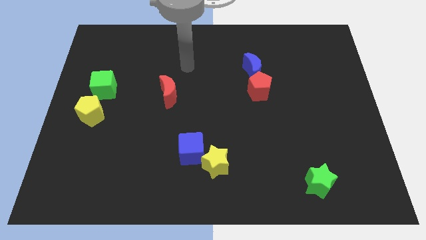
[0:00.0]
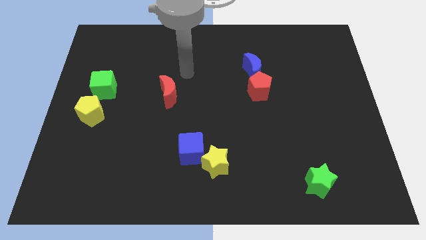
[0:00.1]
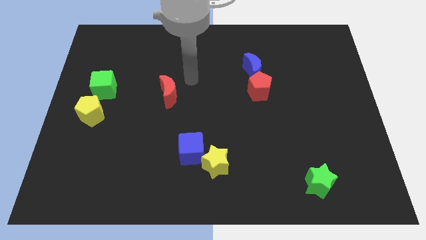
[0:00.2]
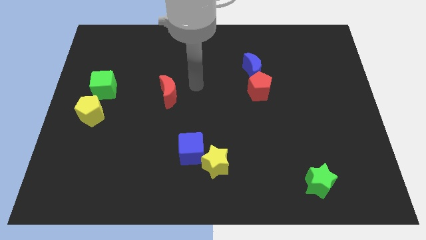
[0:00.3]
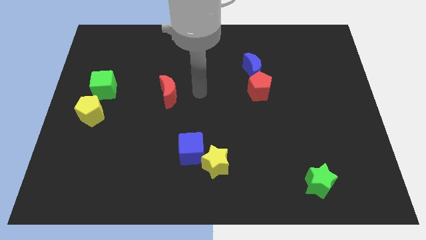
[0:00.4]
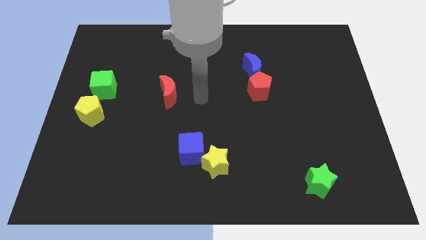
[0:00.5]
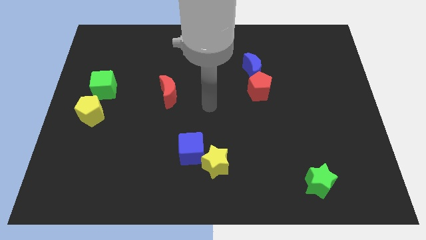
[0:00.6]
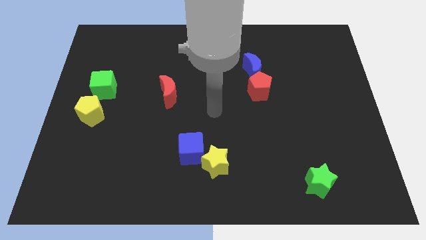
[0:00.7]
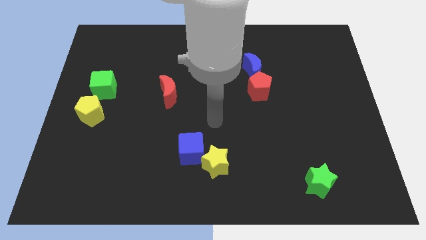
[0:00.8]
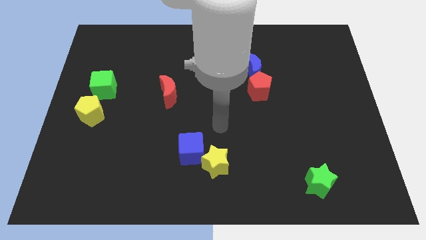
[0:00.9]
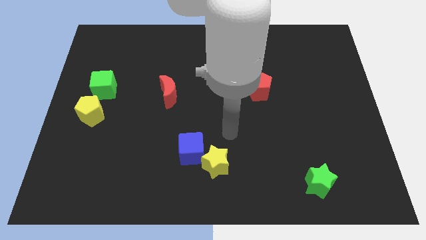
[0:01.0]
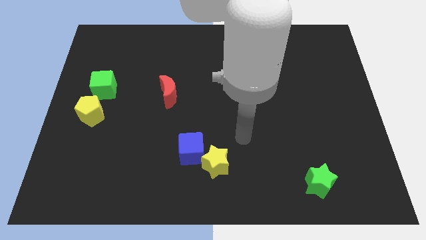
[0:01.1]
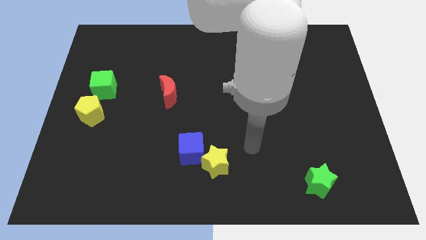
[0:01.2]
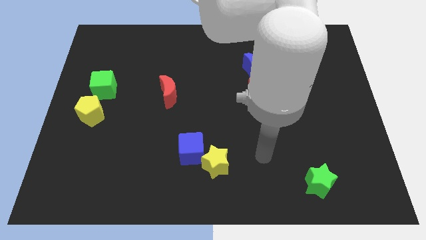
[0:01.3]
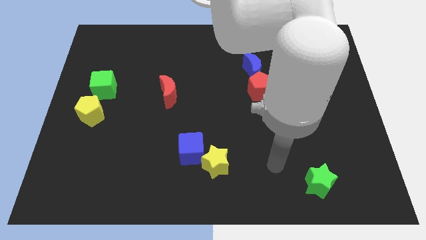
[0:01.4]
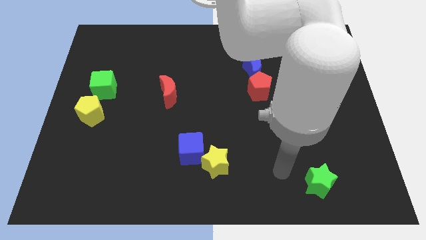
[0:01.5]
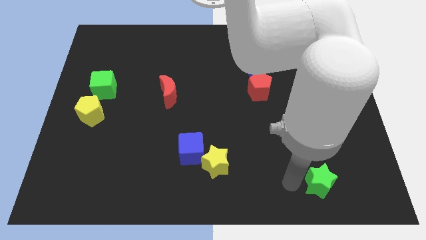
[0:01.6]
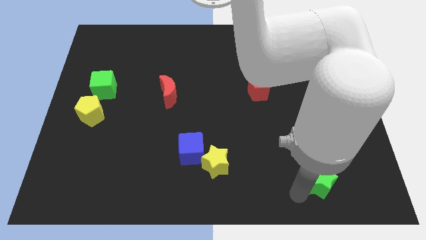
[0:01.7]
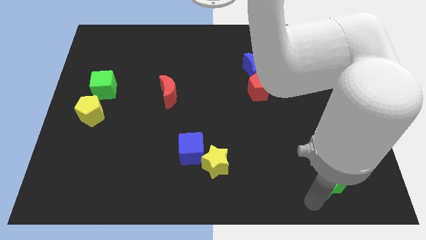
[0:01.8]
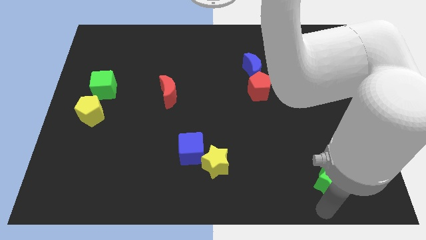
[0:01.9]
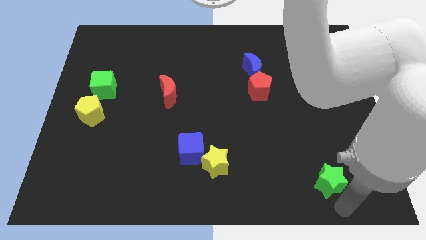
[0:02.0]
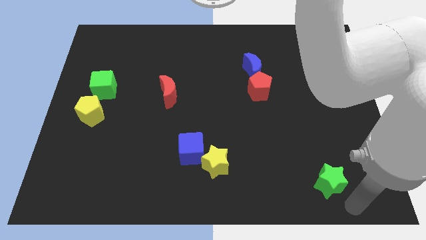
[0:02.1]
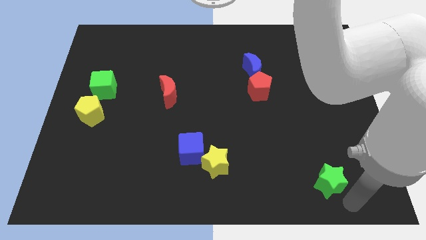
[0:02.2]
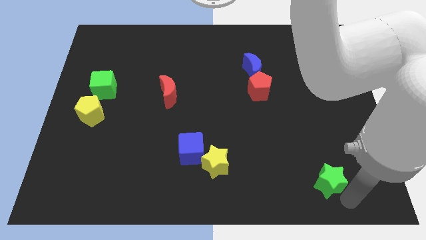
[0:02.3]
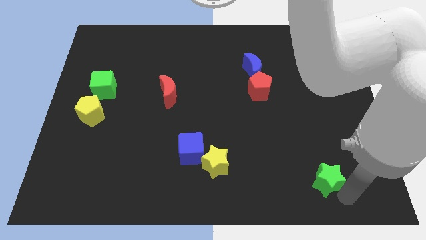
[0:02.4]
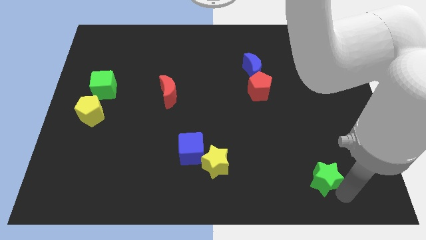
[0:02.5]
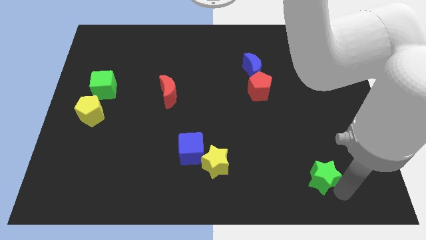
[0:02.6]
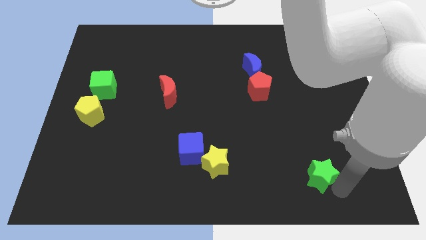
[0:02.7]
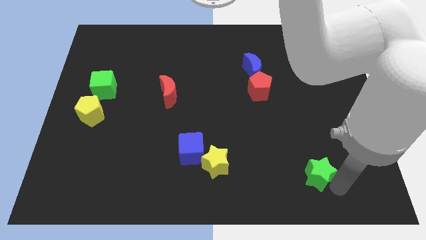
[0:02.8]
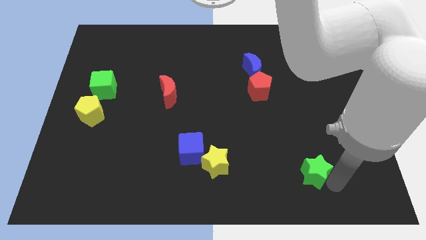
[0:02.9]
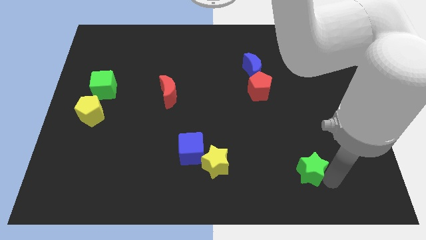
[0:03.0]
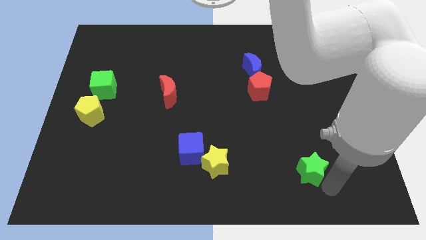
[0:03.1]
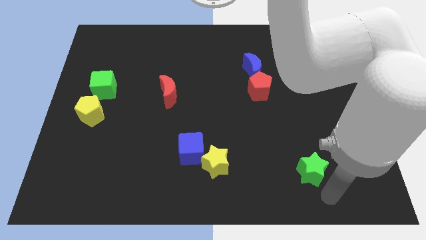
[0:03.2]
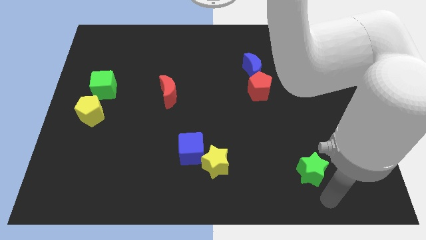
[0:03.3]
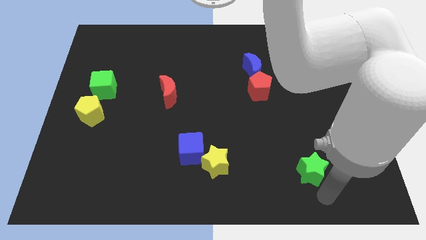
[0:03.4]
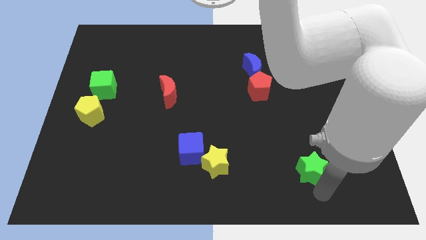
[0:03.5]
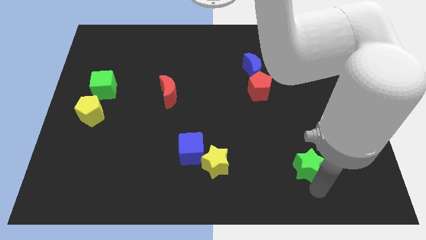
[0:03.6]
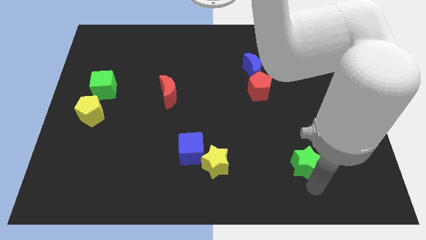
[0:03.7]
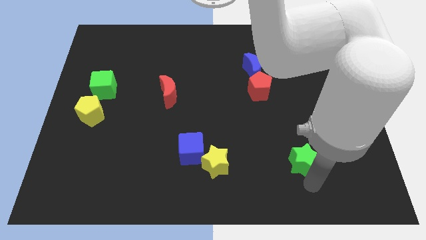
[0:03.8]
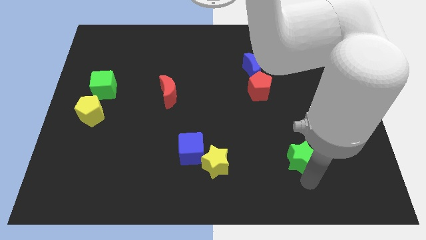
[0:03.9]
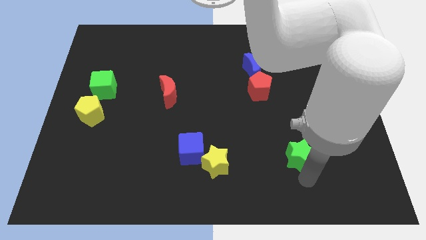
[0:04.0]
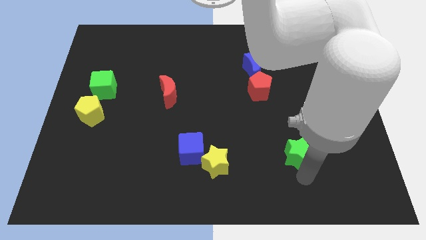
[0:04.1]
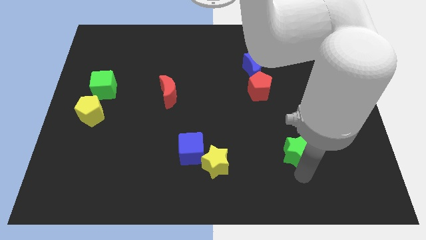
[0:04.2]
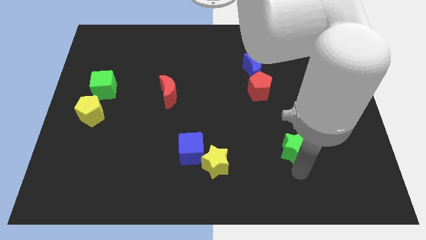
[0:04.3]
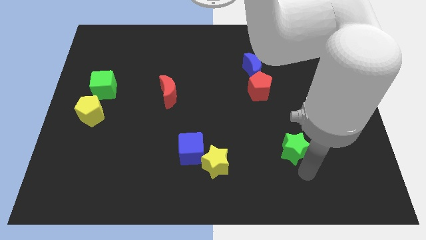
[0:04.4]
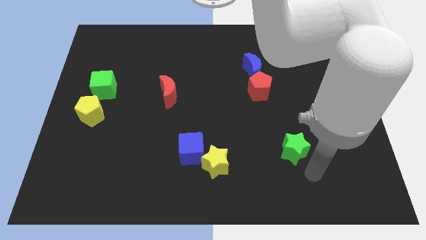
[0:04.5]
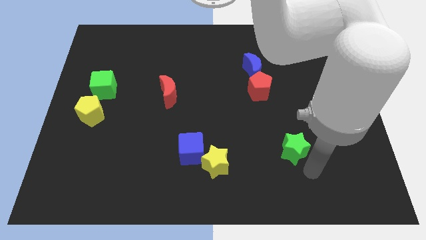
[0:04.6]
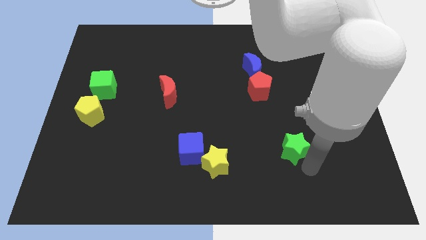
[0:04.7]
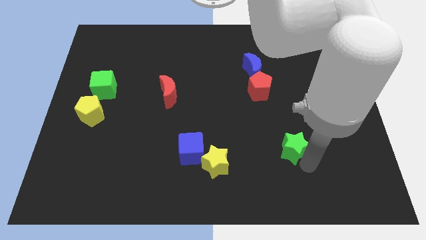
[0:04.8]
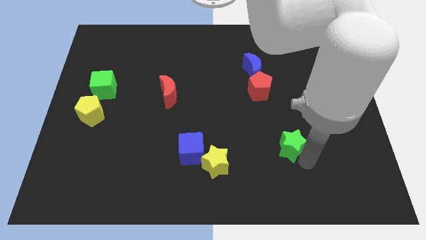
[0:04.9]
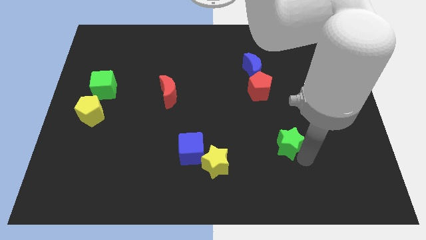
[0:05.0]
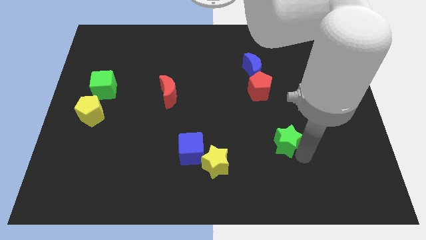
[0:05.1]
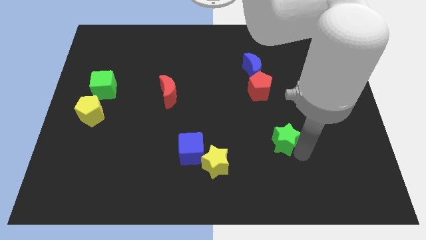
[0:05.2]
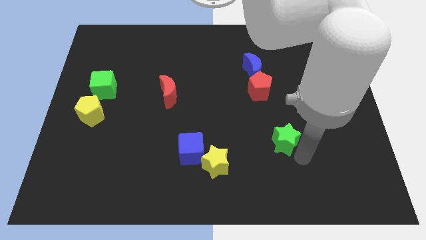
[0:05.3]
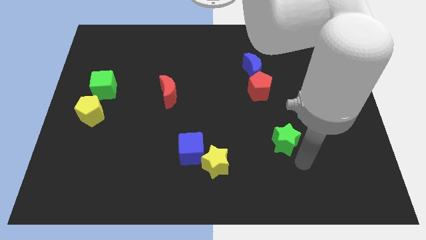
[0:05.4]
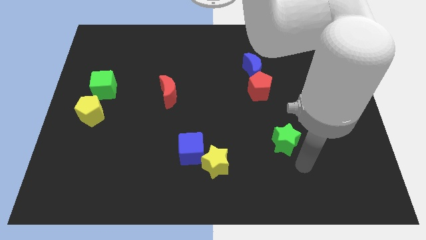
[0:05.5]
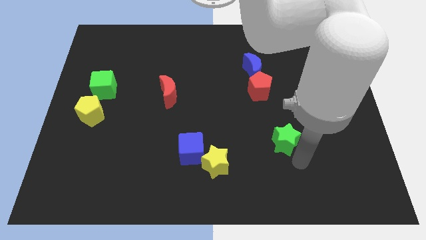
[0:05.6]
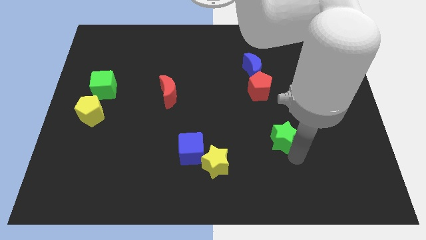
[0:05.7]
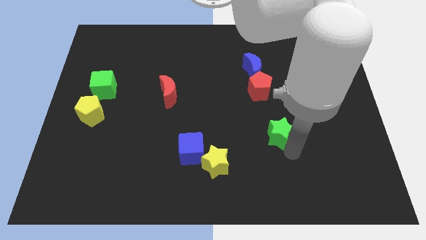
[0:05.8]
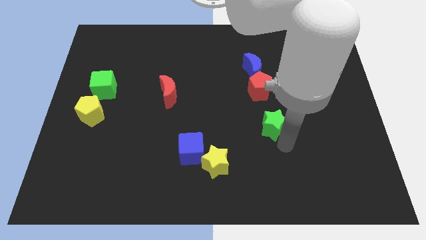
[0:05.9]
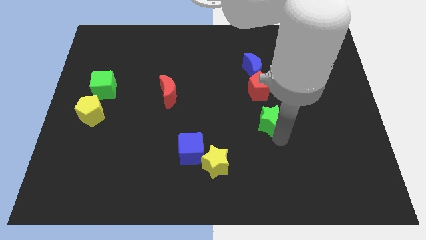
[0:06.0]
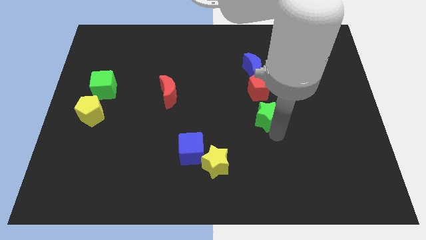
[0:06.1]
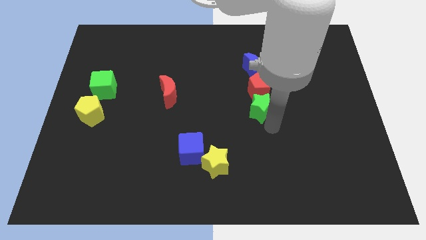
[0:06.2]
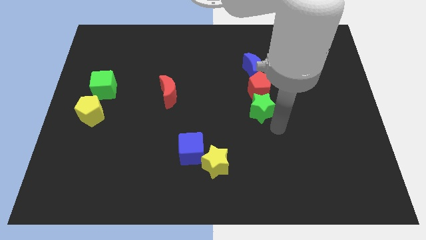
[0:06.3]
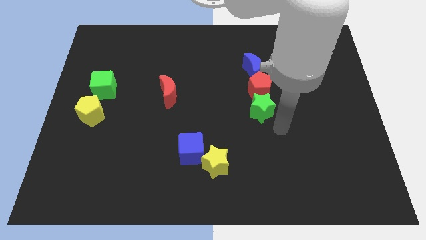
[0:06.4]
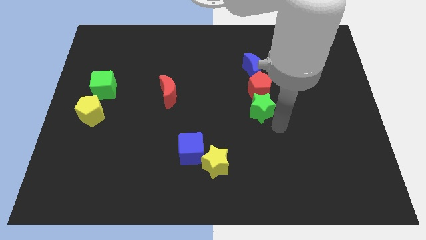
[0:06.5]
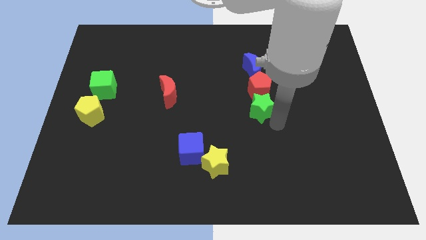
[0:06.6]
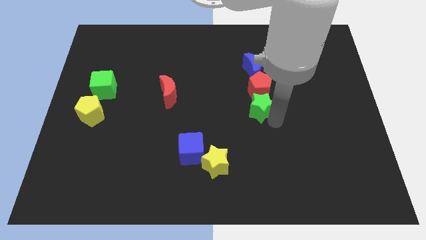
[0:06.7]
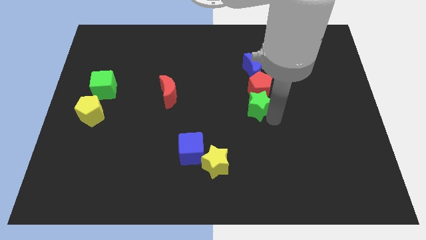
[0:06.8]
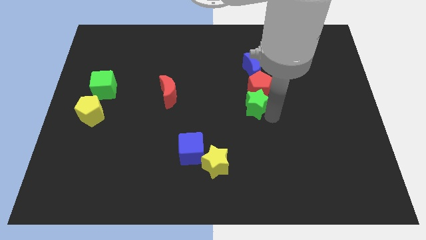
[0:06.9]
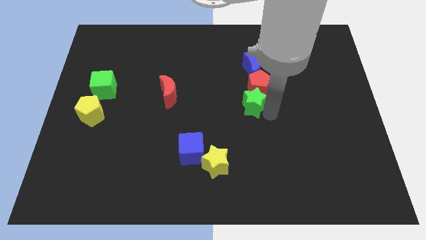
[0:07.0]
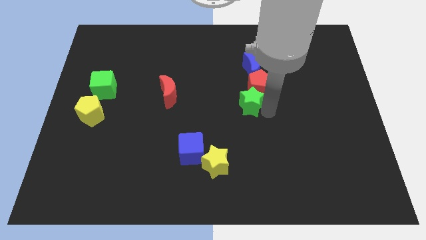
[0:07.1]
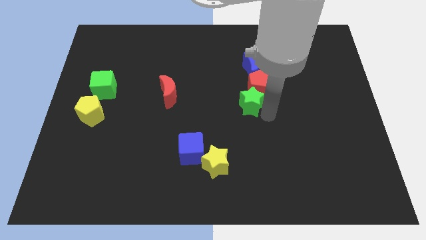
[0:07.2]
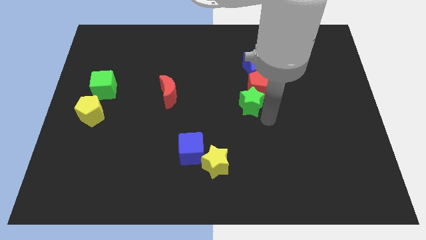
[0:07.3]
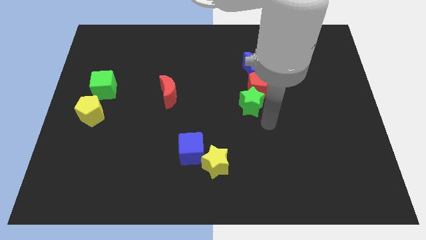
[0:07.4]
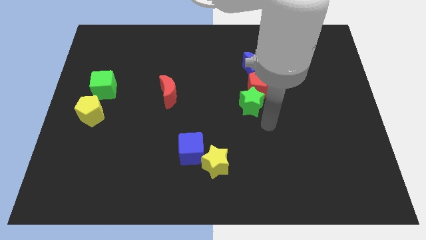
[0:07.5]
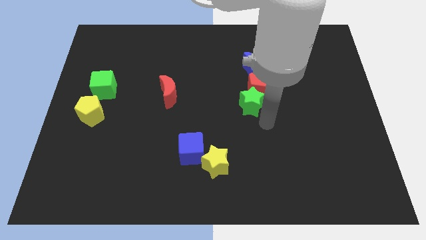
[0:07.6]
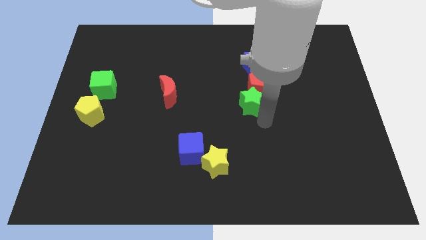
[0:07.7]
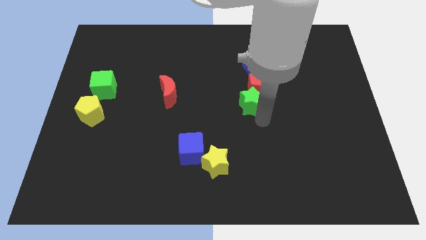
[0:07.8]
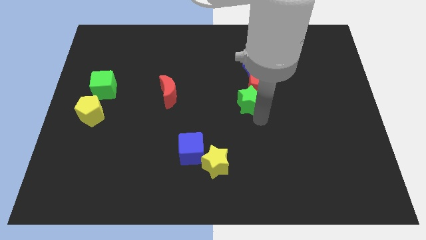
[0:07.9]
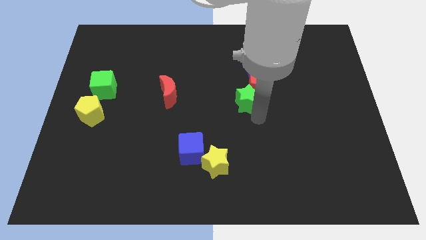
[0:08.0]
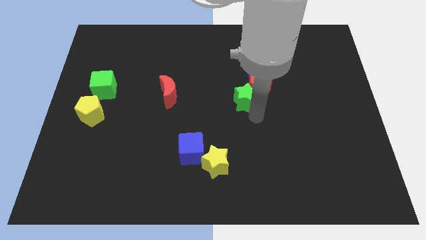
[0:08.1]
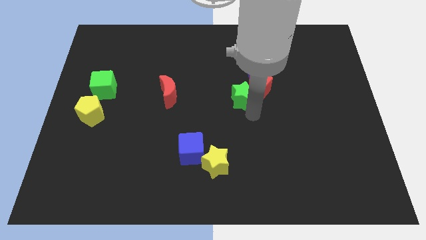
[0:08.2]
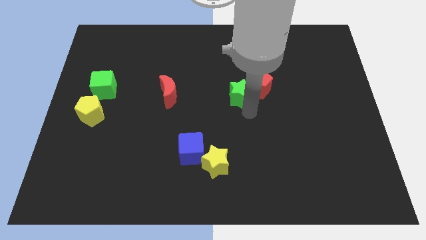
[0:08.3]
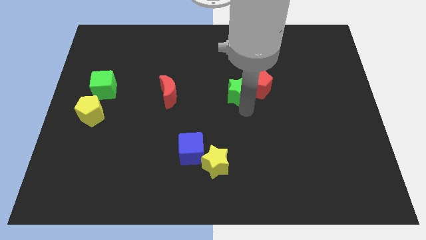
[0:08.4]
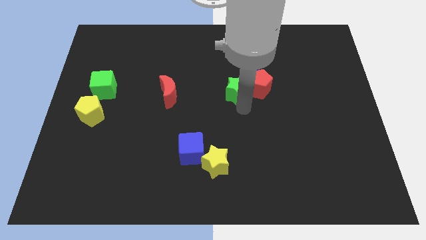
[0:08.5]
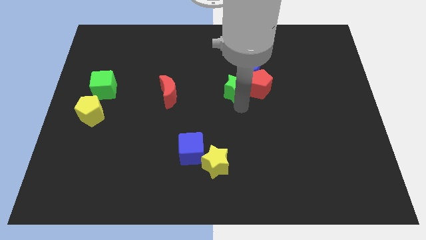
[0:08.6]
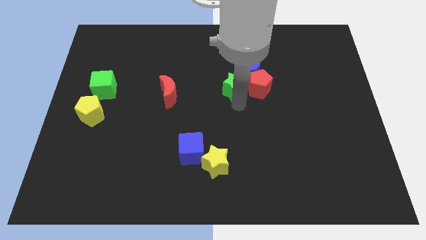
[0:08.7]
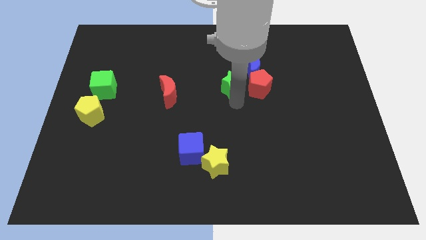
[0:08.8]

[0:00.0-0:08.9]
move the green star to the top left of the red pentagon
